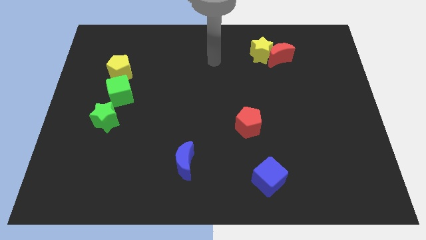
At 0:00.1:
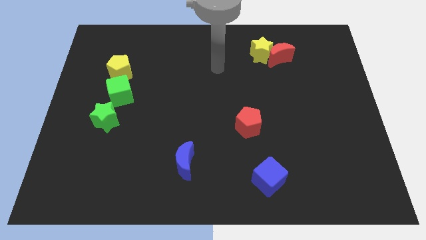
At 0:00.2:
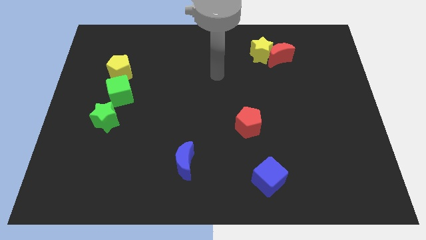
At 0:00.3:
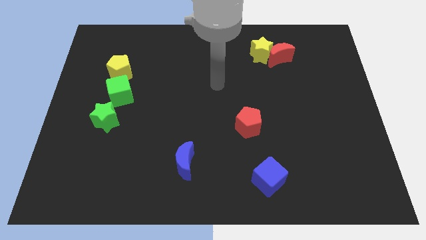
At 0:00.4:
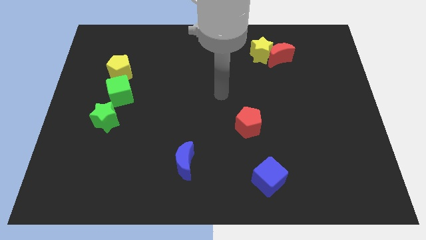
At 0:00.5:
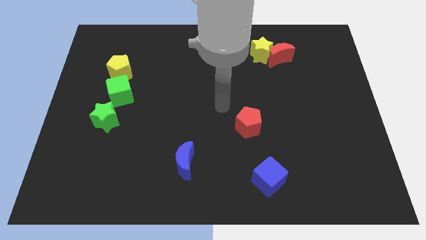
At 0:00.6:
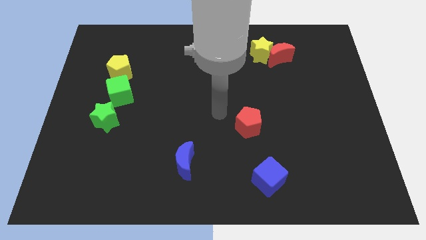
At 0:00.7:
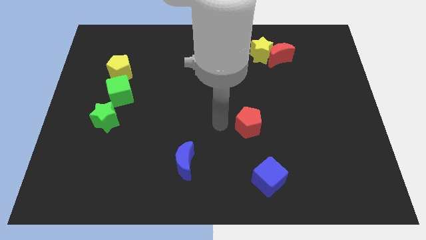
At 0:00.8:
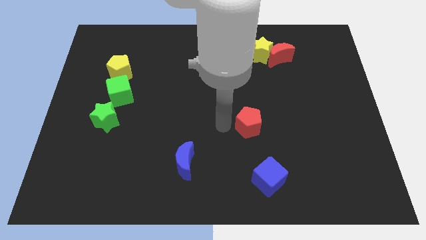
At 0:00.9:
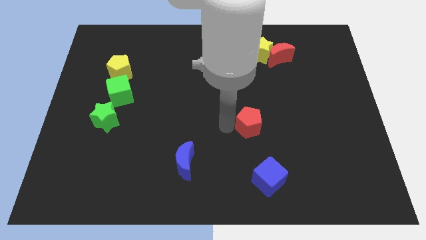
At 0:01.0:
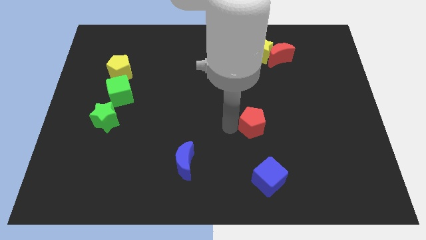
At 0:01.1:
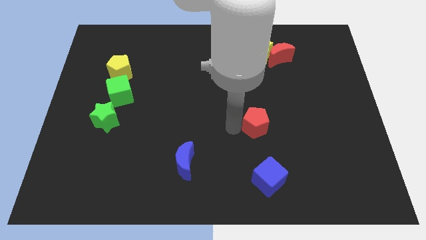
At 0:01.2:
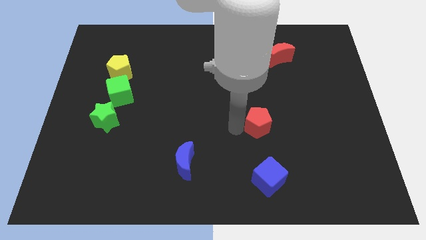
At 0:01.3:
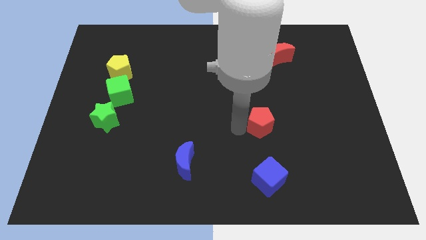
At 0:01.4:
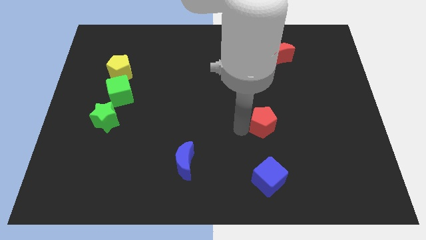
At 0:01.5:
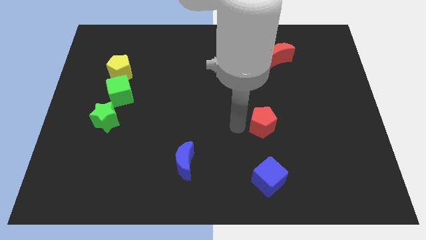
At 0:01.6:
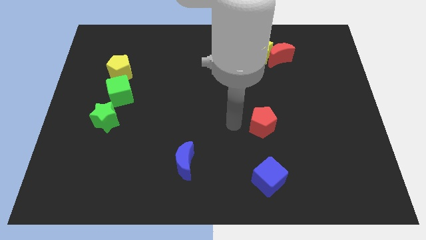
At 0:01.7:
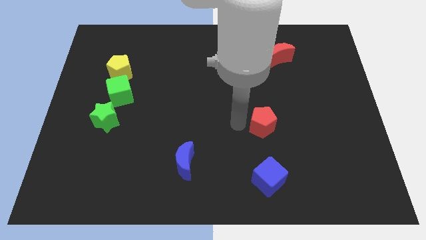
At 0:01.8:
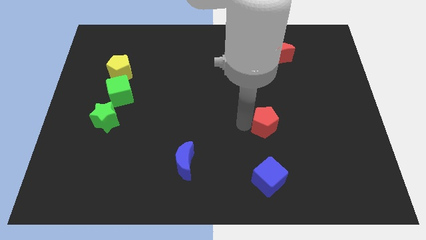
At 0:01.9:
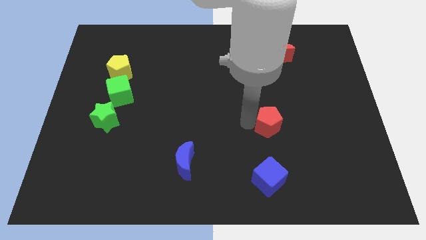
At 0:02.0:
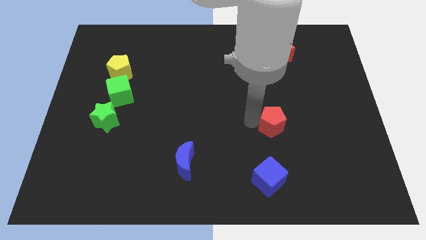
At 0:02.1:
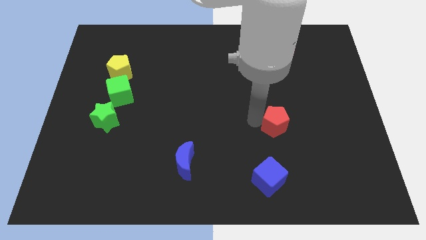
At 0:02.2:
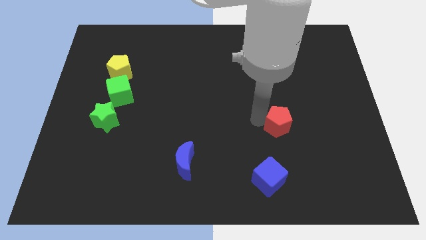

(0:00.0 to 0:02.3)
slightly slide the red pentagon right

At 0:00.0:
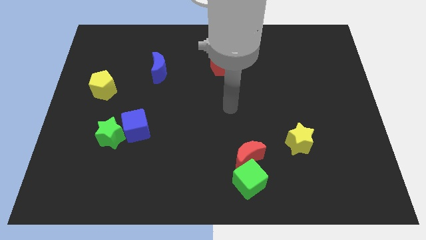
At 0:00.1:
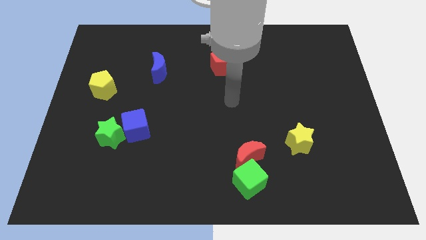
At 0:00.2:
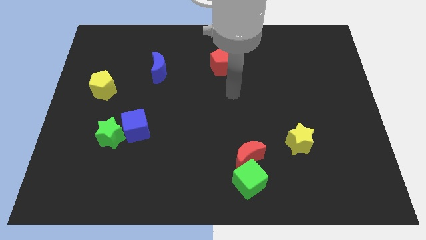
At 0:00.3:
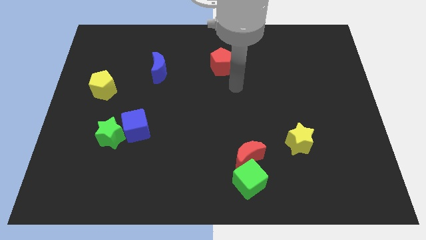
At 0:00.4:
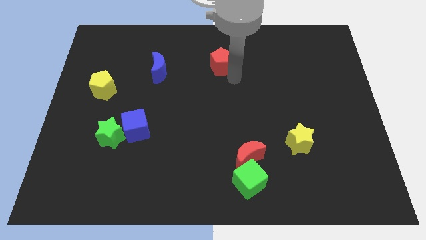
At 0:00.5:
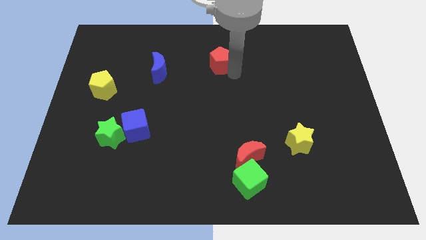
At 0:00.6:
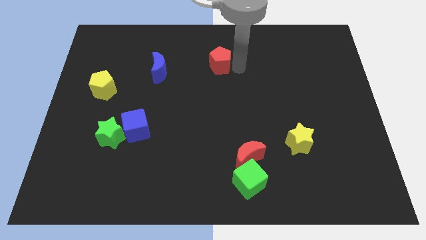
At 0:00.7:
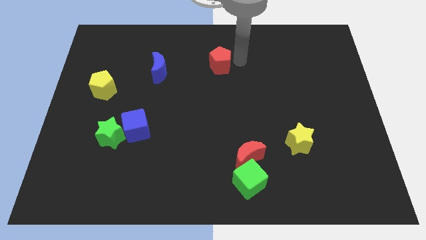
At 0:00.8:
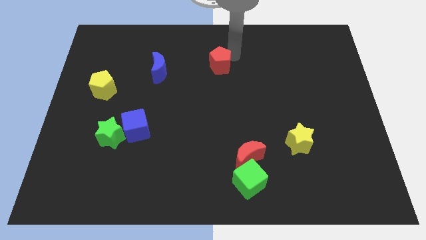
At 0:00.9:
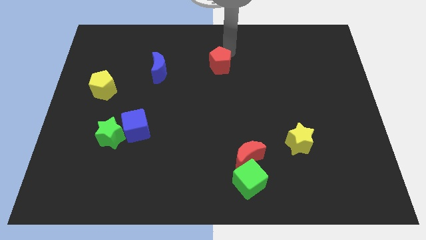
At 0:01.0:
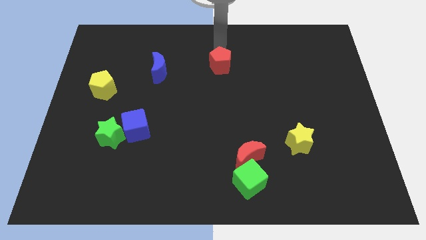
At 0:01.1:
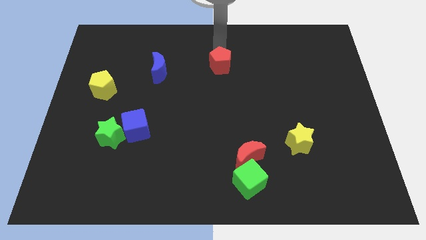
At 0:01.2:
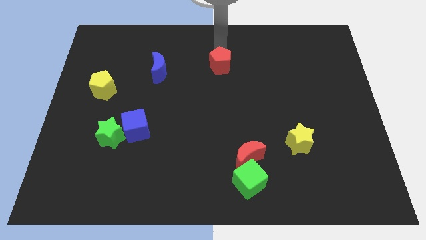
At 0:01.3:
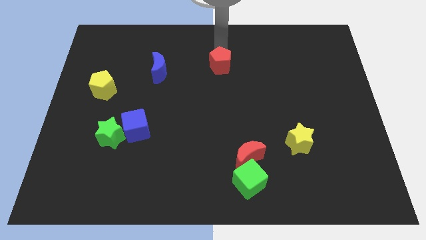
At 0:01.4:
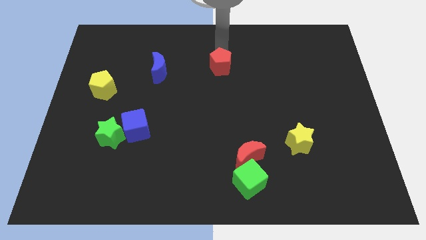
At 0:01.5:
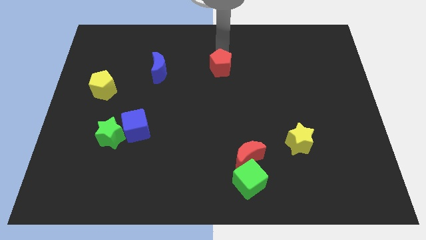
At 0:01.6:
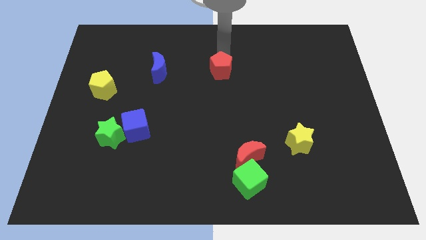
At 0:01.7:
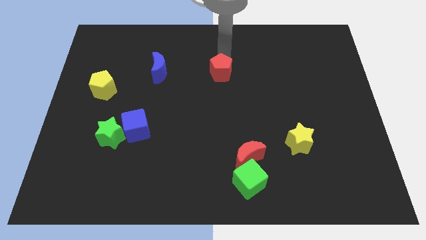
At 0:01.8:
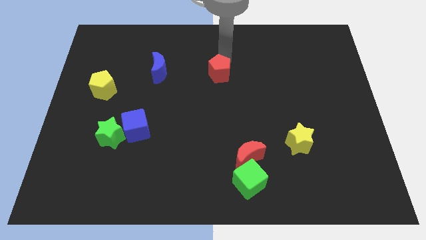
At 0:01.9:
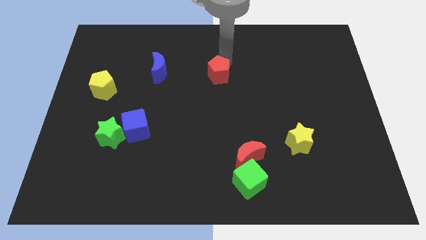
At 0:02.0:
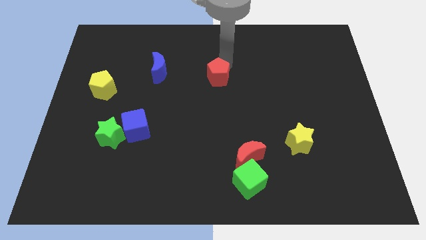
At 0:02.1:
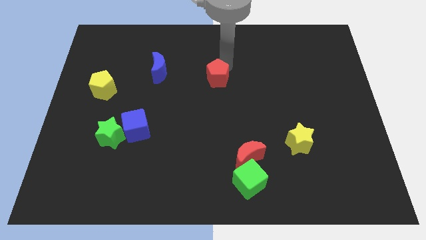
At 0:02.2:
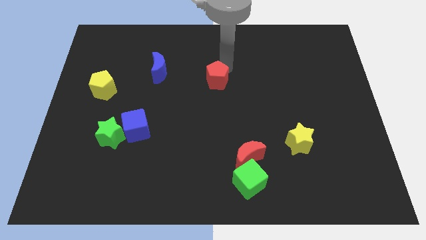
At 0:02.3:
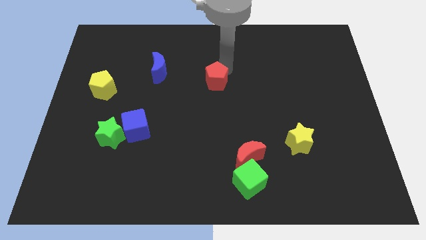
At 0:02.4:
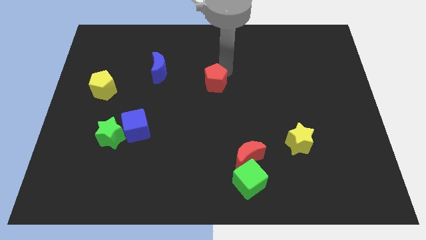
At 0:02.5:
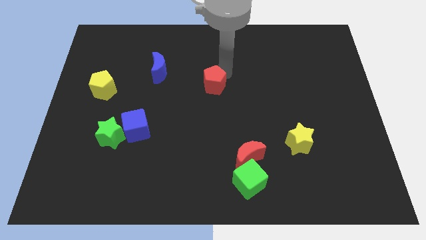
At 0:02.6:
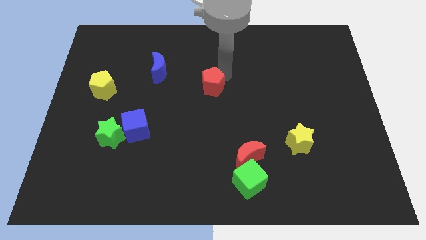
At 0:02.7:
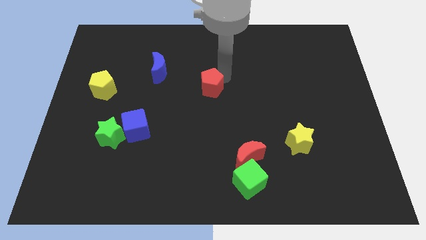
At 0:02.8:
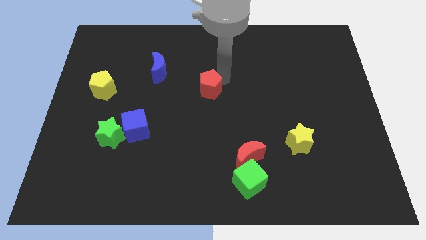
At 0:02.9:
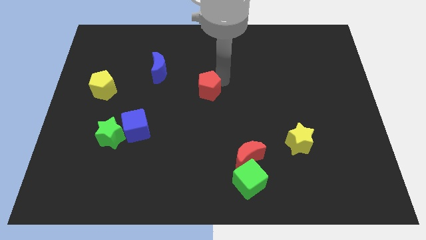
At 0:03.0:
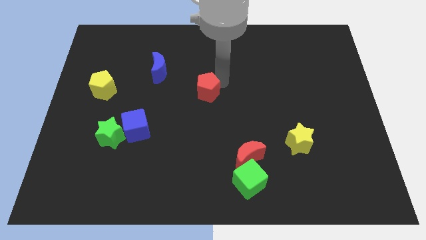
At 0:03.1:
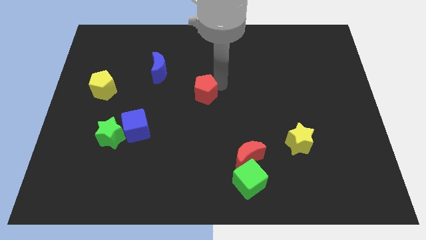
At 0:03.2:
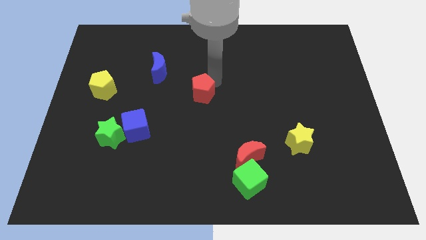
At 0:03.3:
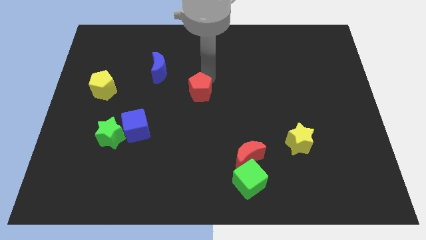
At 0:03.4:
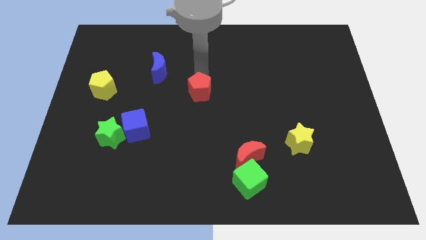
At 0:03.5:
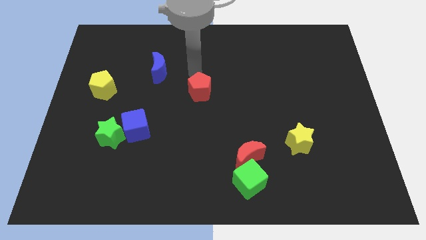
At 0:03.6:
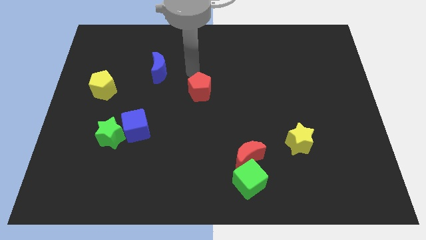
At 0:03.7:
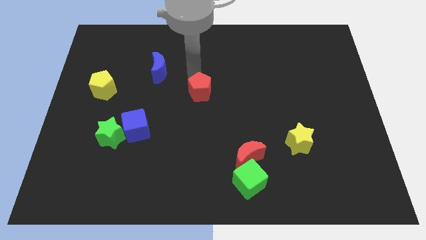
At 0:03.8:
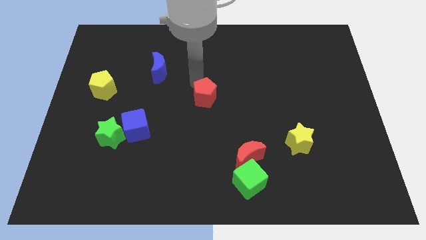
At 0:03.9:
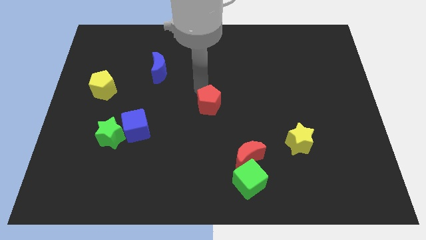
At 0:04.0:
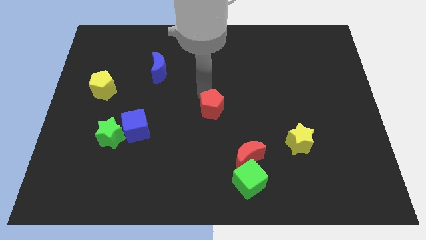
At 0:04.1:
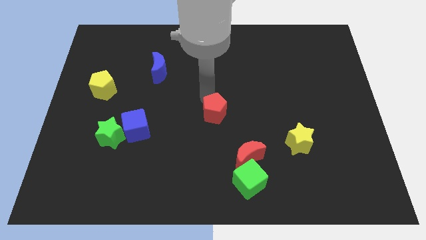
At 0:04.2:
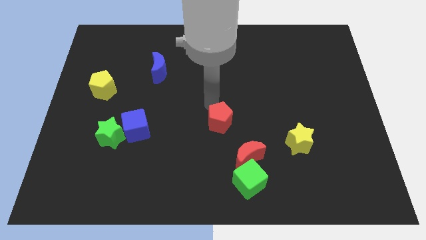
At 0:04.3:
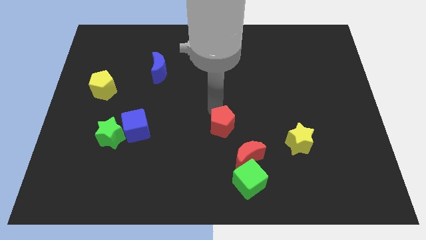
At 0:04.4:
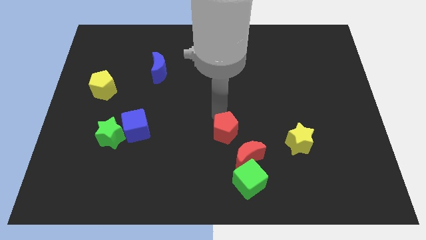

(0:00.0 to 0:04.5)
push the red pentagon down

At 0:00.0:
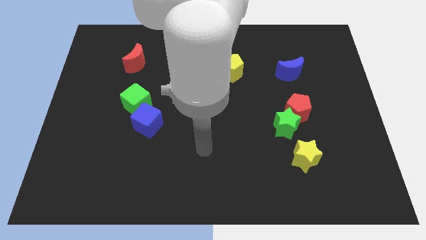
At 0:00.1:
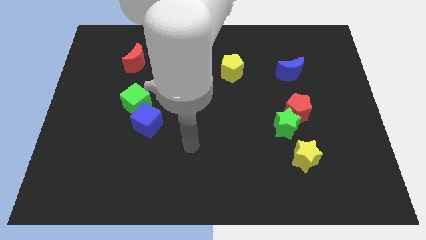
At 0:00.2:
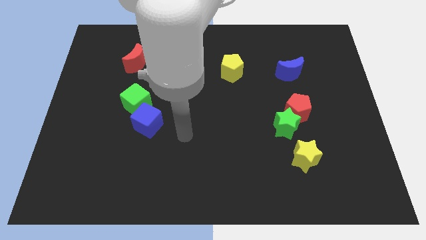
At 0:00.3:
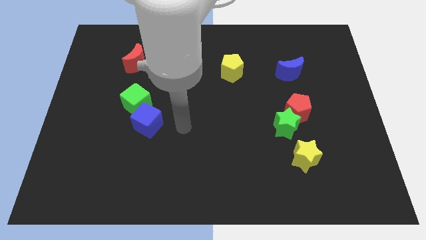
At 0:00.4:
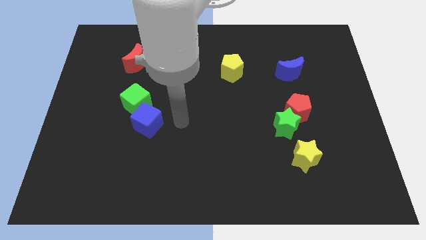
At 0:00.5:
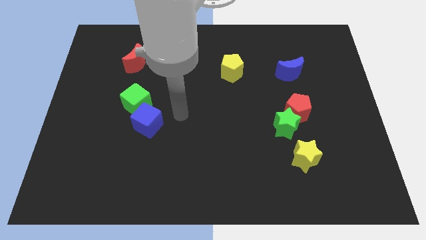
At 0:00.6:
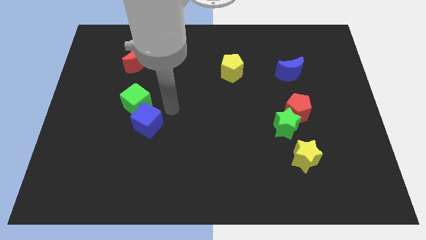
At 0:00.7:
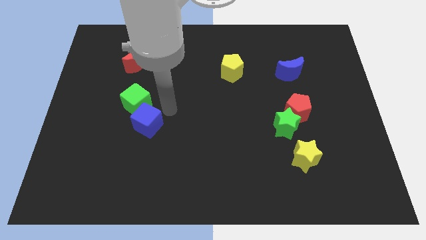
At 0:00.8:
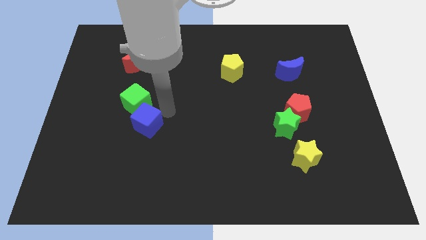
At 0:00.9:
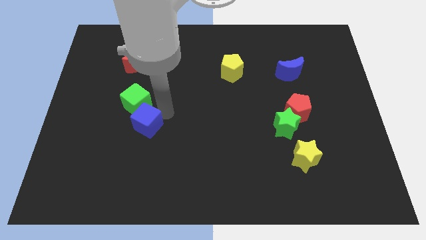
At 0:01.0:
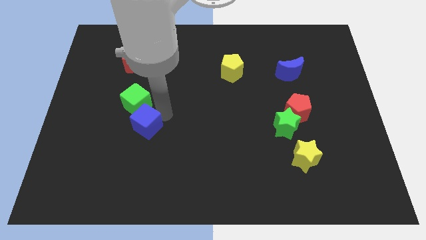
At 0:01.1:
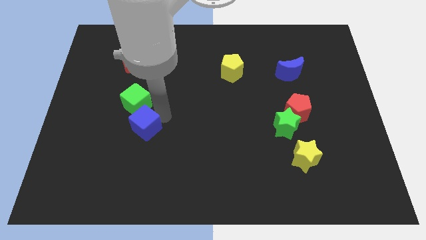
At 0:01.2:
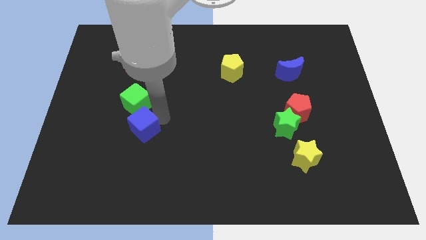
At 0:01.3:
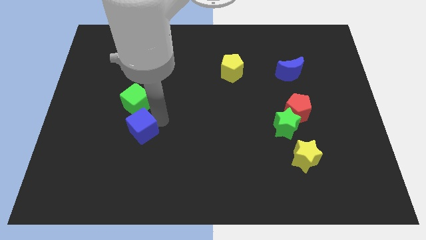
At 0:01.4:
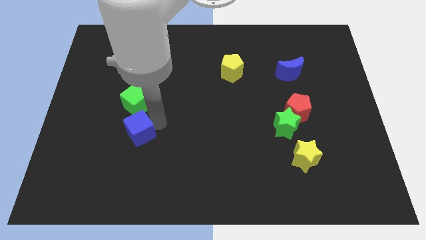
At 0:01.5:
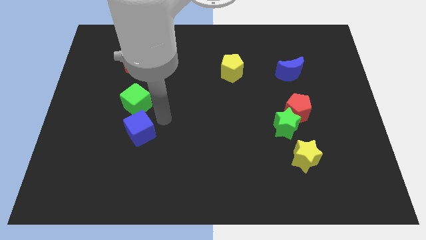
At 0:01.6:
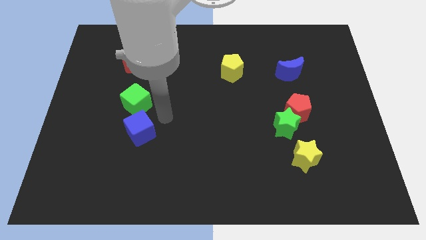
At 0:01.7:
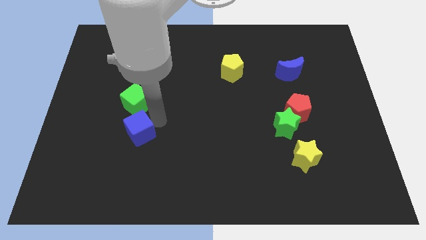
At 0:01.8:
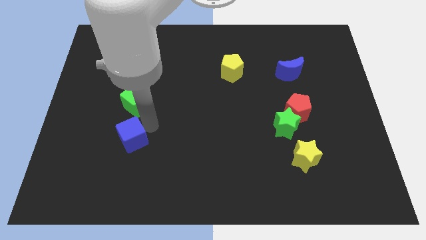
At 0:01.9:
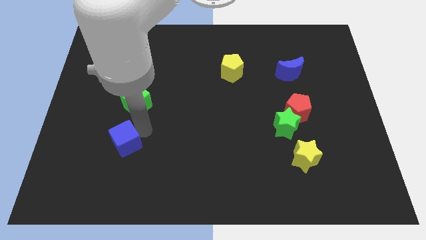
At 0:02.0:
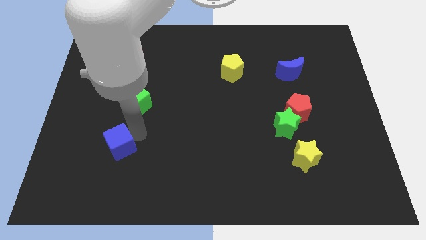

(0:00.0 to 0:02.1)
move the blue cube slightly down and then left
